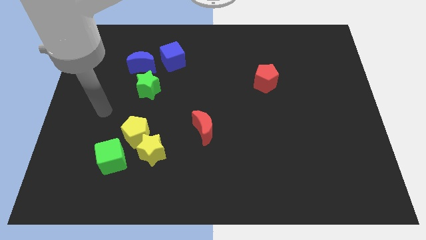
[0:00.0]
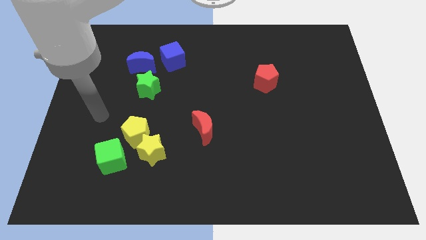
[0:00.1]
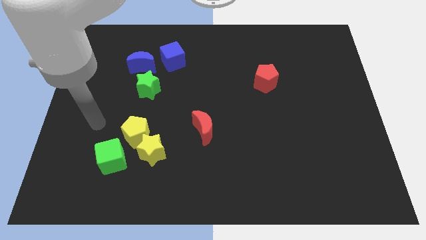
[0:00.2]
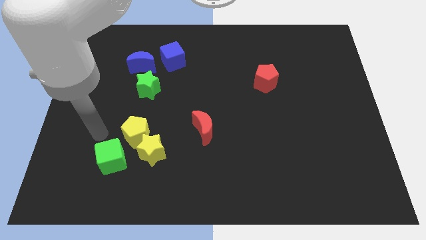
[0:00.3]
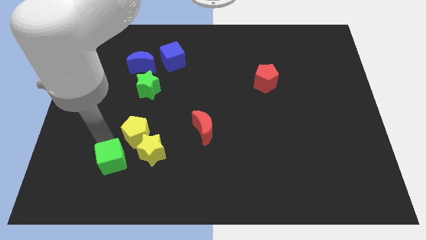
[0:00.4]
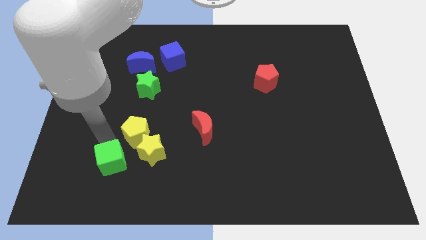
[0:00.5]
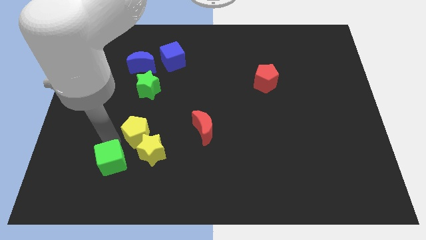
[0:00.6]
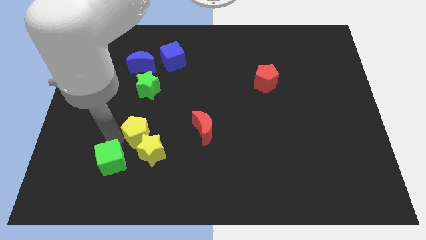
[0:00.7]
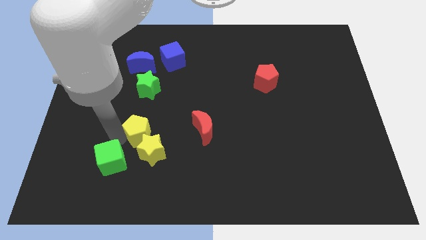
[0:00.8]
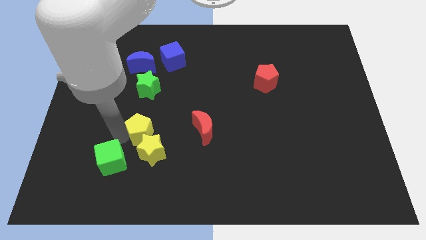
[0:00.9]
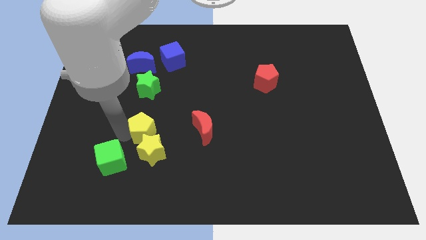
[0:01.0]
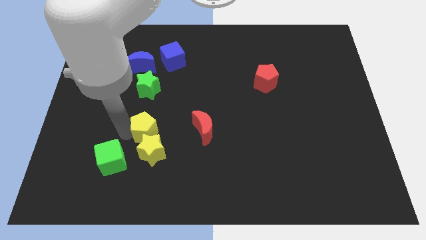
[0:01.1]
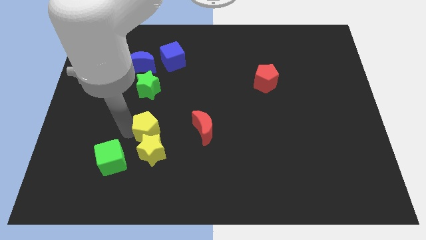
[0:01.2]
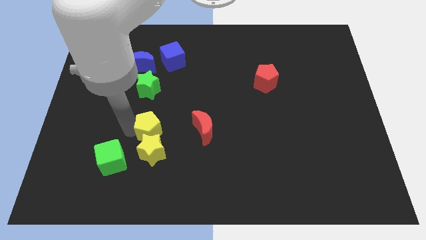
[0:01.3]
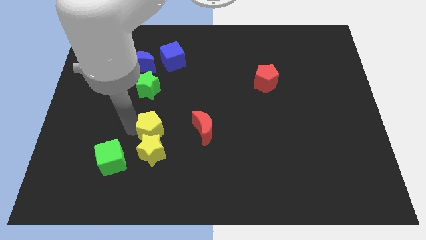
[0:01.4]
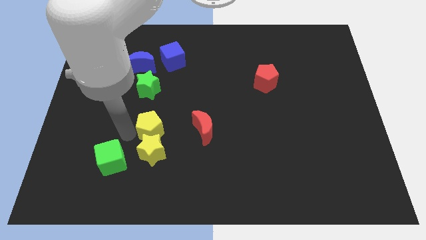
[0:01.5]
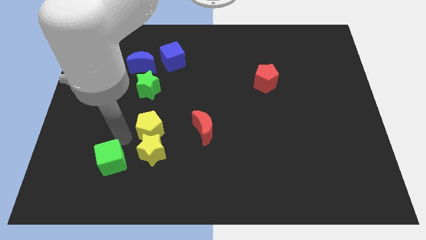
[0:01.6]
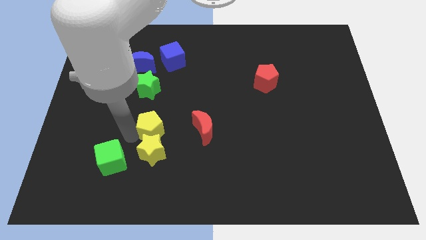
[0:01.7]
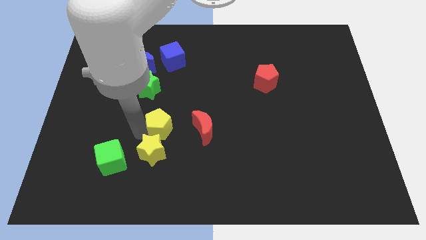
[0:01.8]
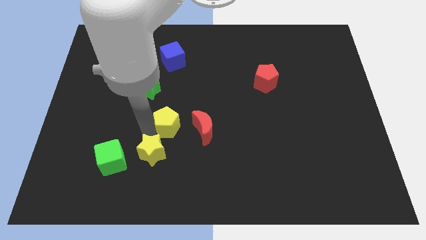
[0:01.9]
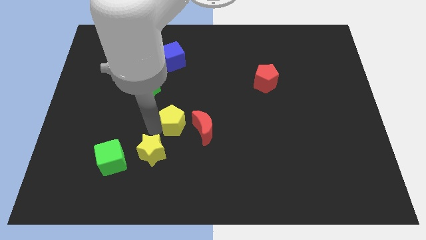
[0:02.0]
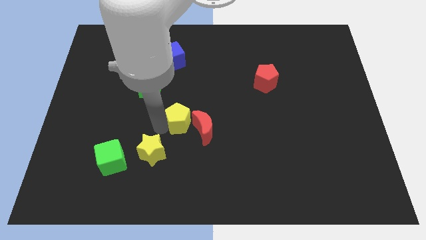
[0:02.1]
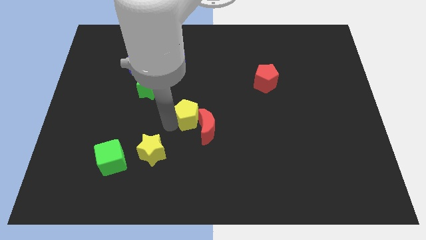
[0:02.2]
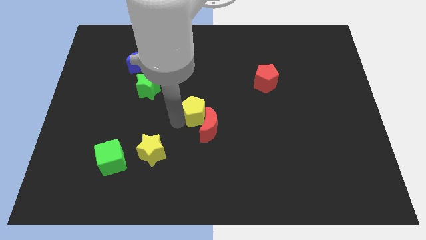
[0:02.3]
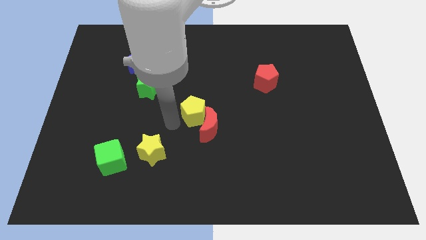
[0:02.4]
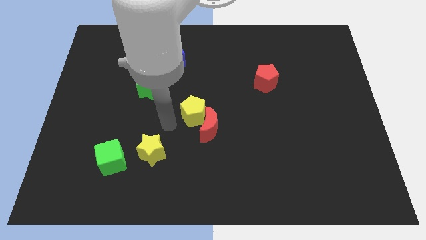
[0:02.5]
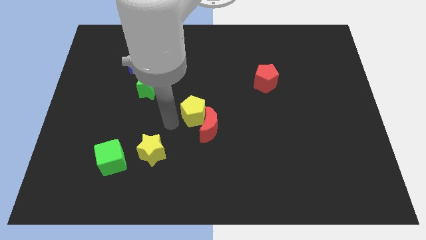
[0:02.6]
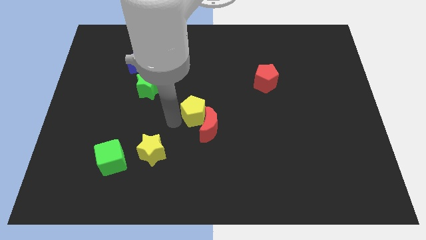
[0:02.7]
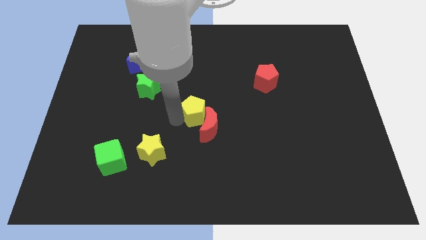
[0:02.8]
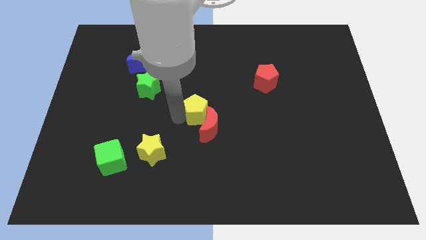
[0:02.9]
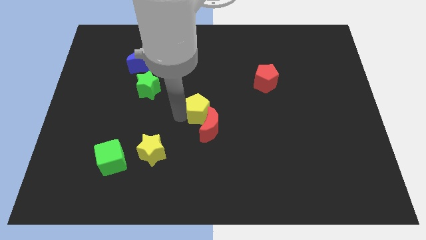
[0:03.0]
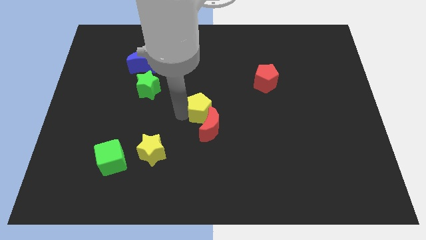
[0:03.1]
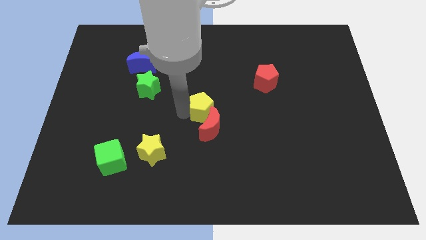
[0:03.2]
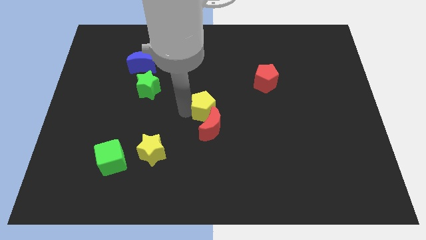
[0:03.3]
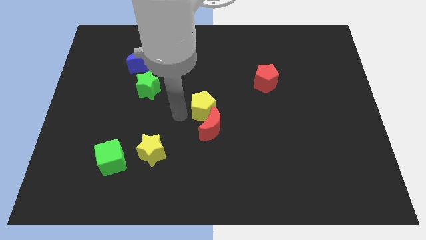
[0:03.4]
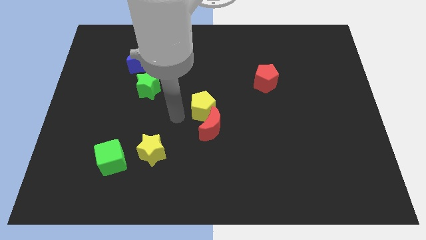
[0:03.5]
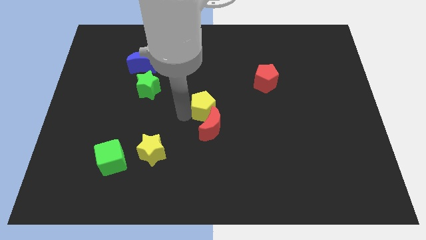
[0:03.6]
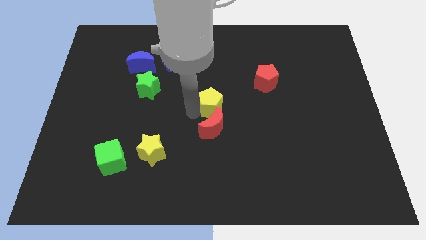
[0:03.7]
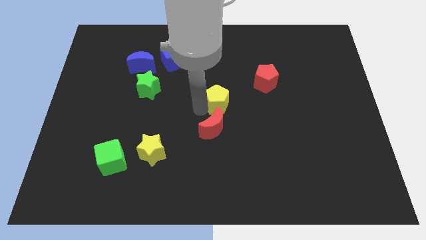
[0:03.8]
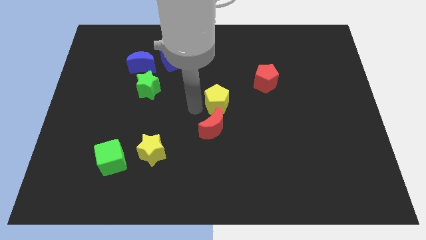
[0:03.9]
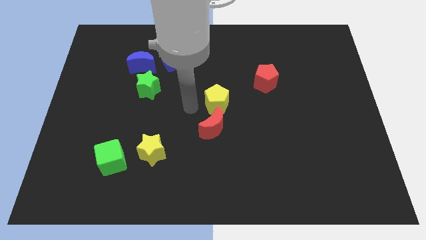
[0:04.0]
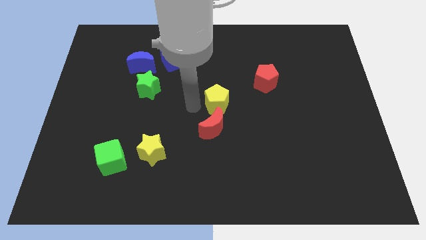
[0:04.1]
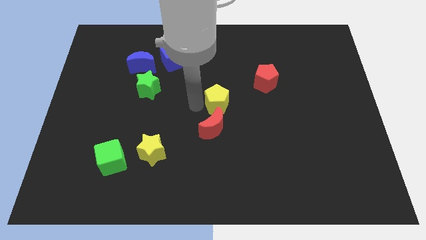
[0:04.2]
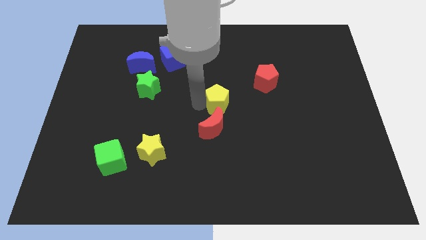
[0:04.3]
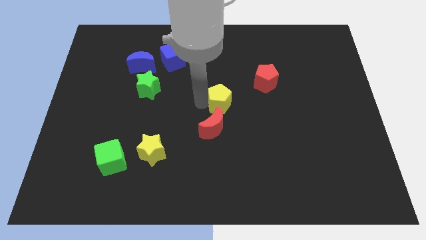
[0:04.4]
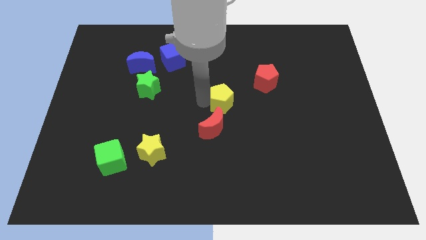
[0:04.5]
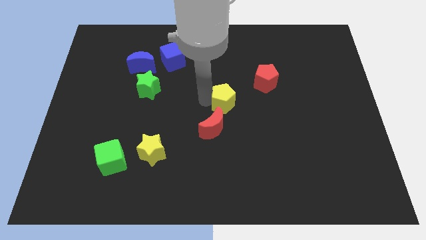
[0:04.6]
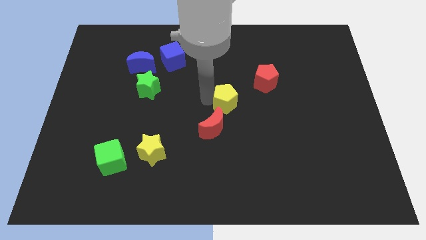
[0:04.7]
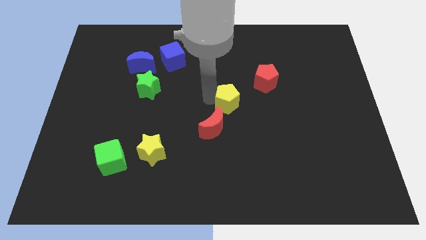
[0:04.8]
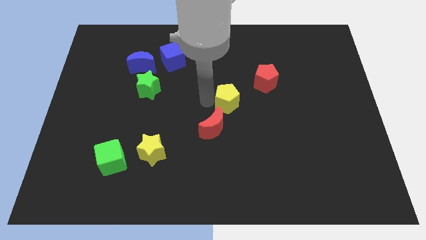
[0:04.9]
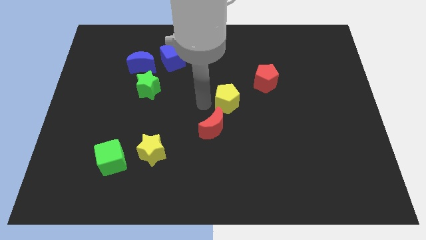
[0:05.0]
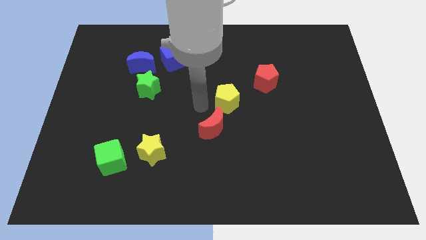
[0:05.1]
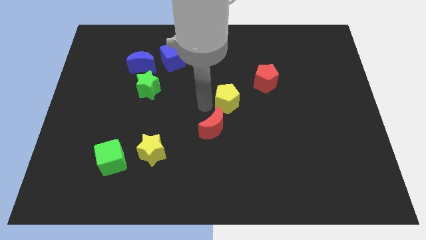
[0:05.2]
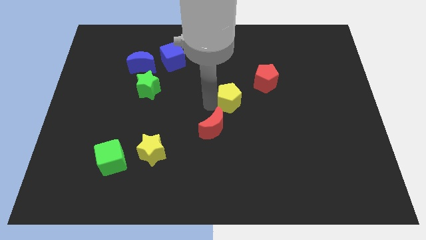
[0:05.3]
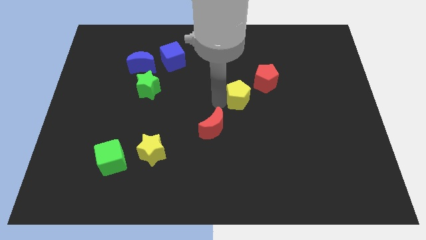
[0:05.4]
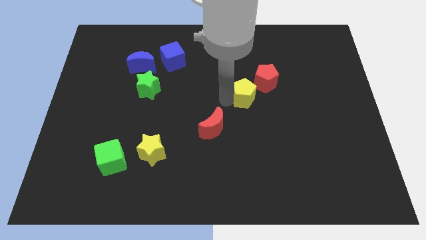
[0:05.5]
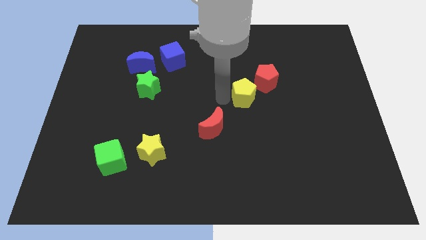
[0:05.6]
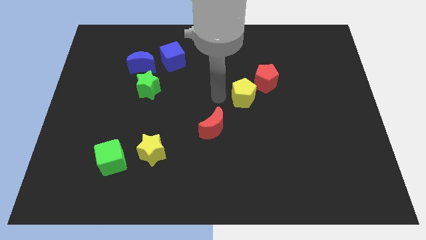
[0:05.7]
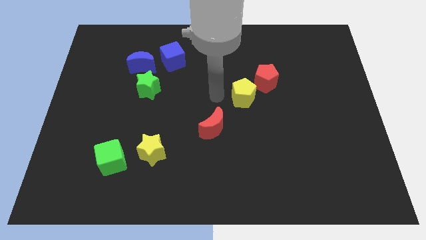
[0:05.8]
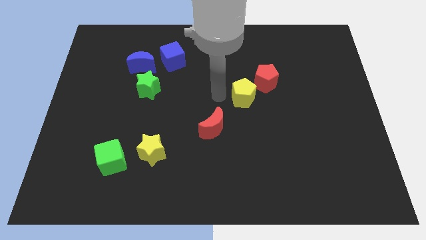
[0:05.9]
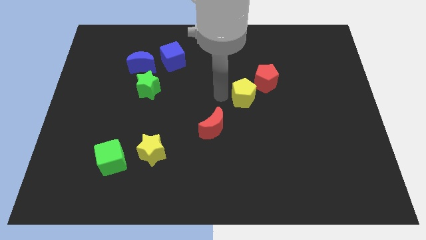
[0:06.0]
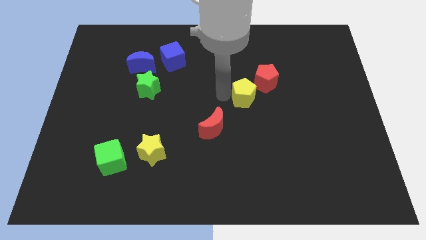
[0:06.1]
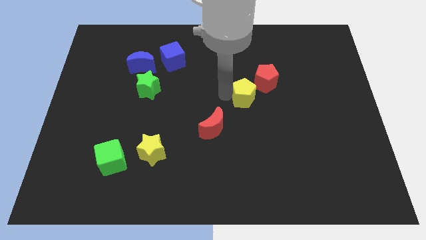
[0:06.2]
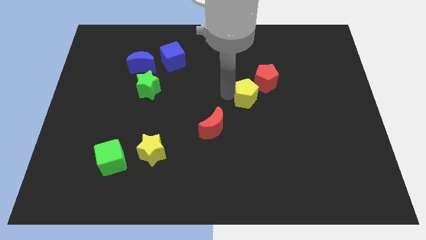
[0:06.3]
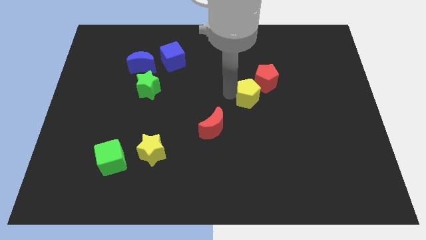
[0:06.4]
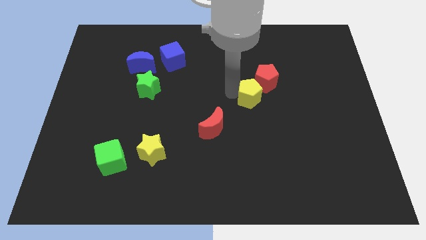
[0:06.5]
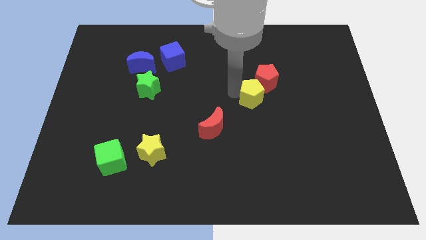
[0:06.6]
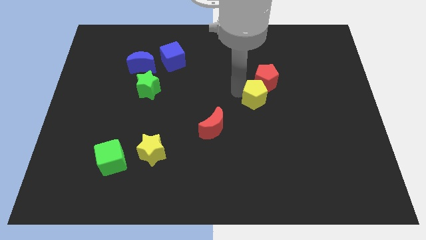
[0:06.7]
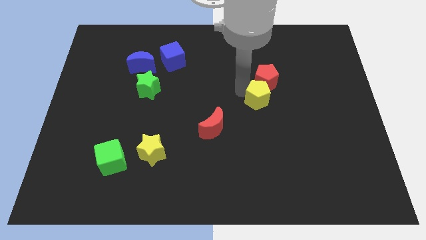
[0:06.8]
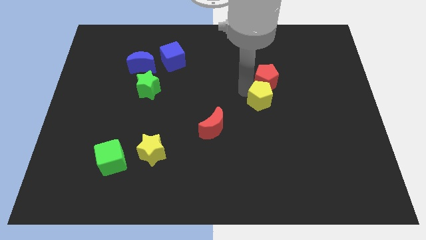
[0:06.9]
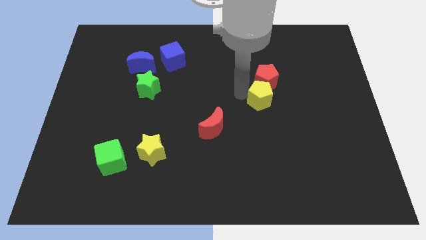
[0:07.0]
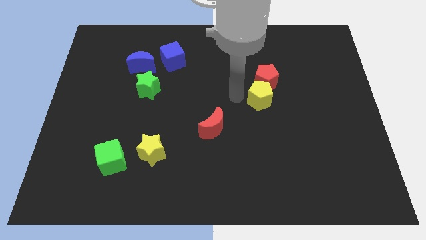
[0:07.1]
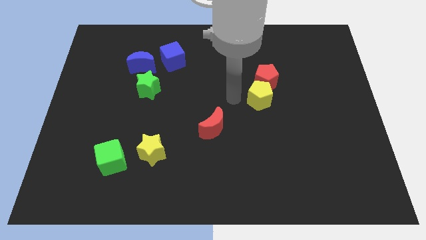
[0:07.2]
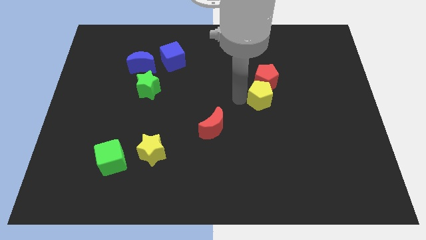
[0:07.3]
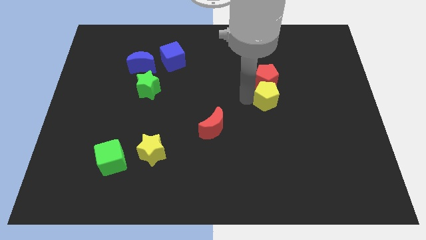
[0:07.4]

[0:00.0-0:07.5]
put the yellow pentagon to the bottom right of the red pentagon
